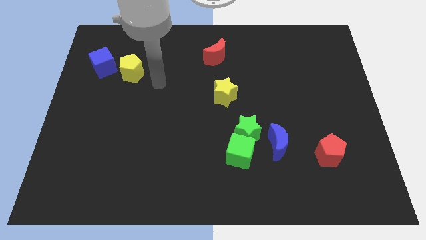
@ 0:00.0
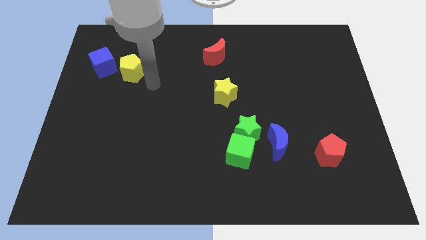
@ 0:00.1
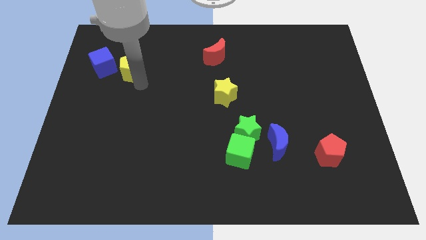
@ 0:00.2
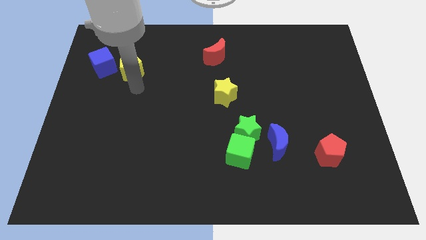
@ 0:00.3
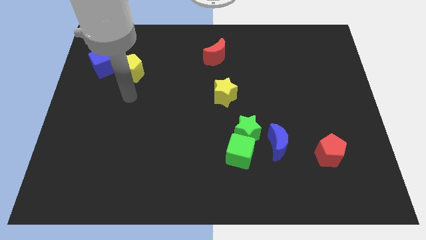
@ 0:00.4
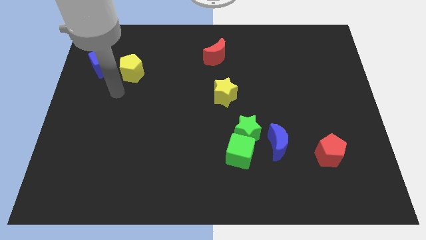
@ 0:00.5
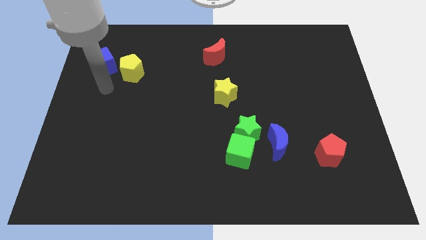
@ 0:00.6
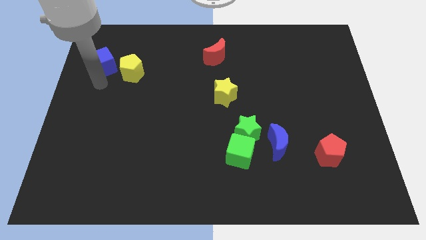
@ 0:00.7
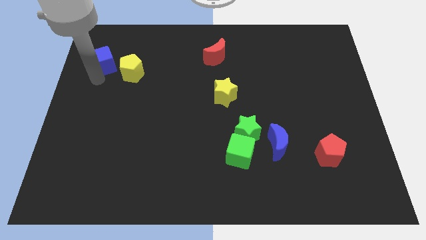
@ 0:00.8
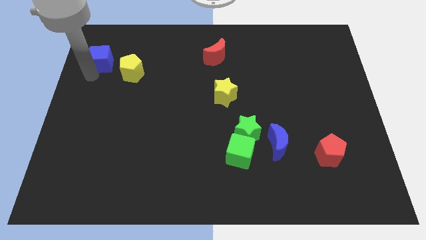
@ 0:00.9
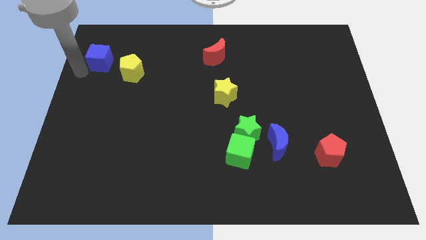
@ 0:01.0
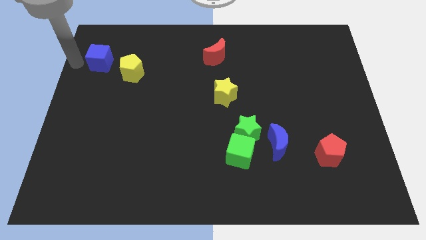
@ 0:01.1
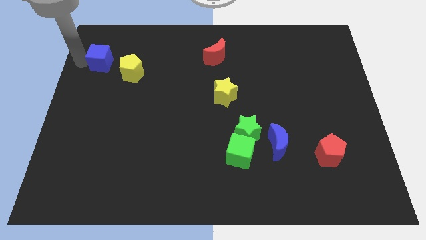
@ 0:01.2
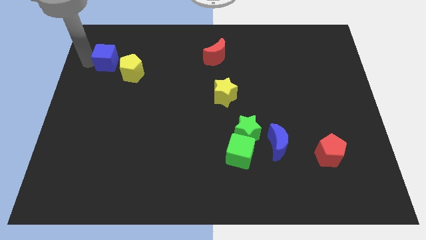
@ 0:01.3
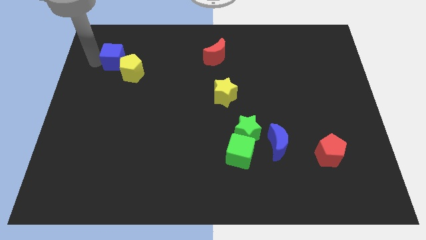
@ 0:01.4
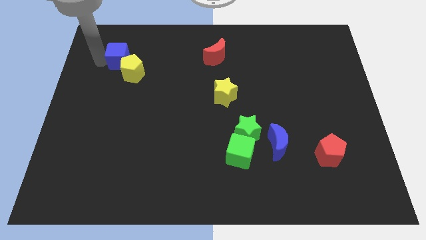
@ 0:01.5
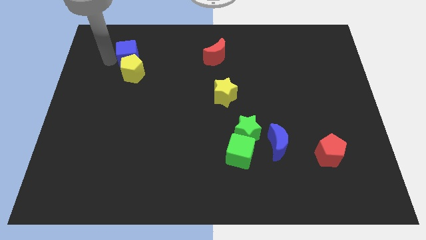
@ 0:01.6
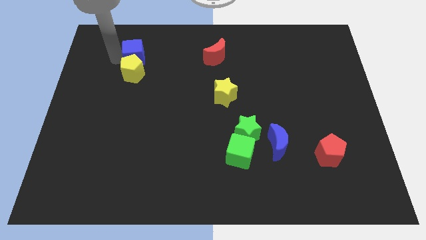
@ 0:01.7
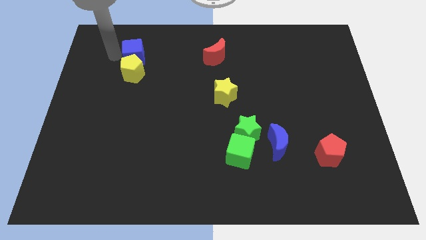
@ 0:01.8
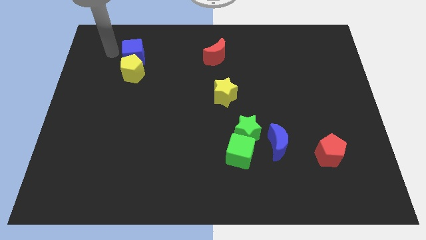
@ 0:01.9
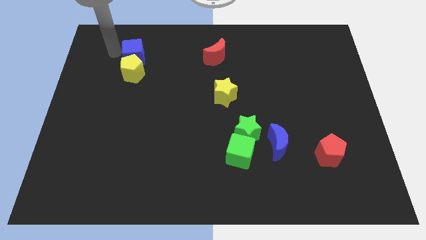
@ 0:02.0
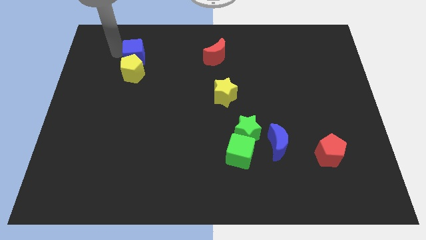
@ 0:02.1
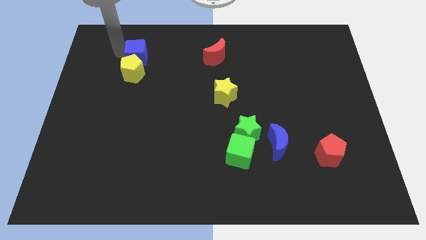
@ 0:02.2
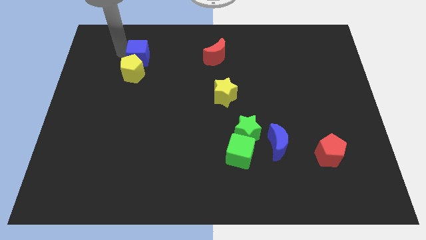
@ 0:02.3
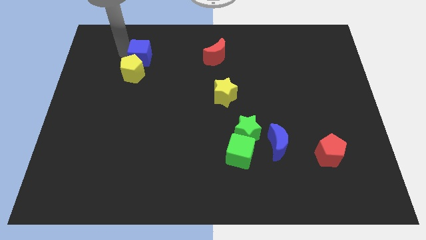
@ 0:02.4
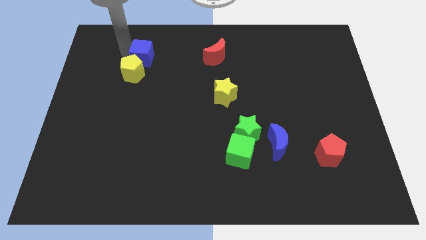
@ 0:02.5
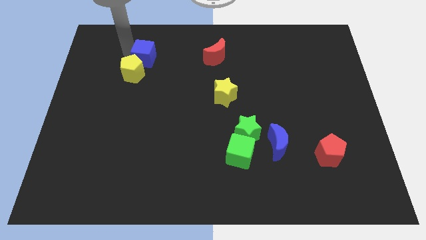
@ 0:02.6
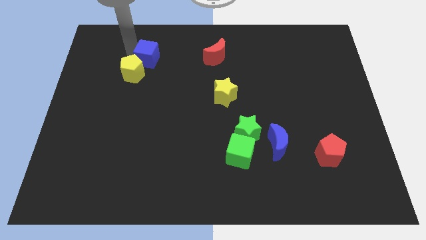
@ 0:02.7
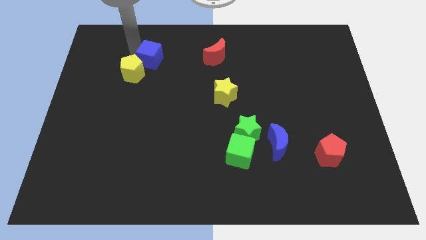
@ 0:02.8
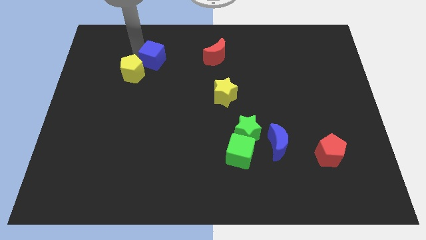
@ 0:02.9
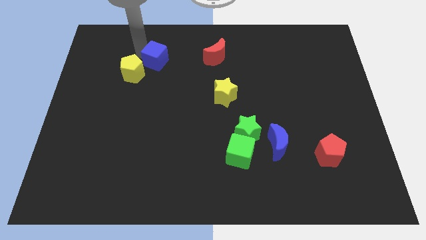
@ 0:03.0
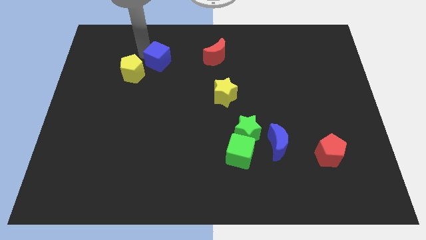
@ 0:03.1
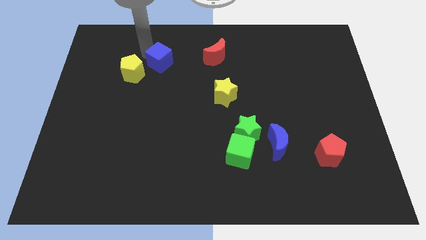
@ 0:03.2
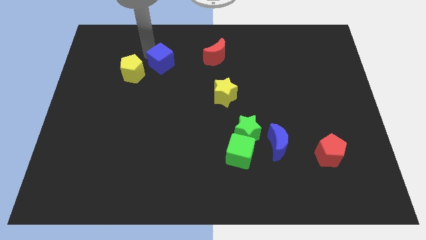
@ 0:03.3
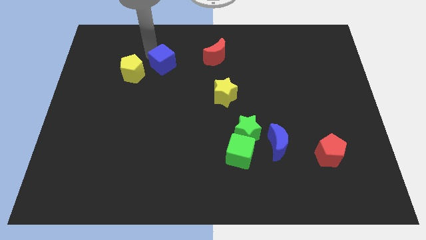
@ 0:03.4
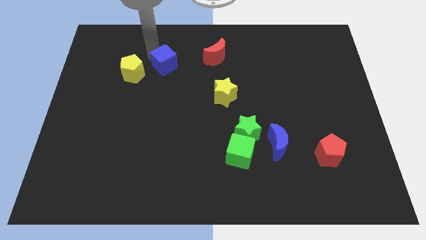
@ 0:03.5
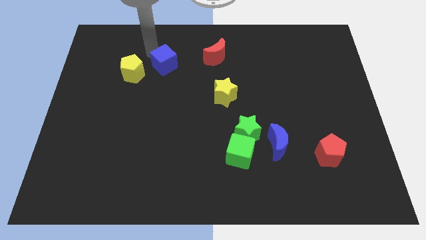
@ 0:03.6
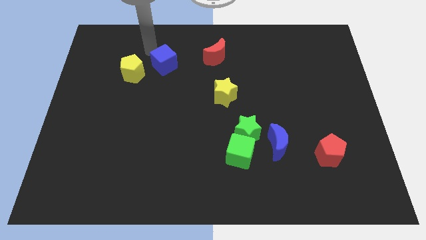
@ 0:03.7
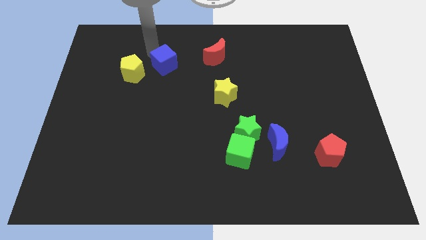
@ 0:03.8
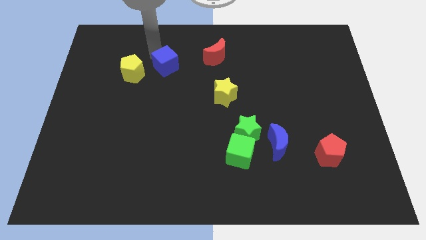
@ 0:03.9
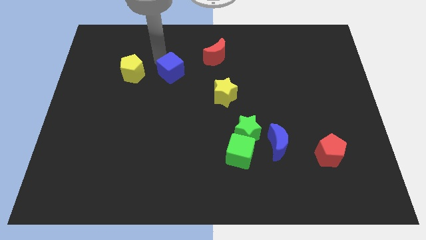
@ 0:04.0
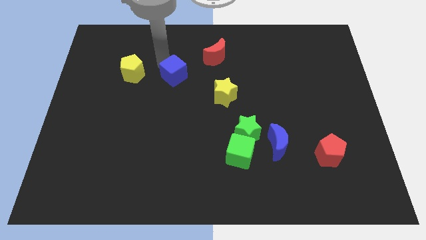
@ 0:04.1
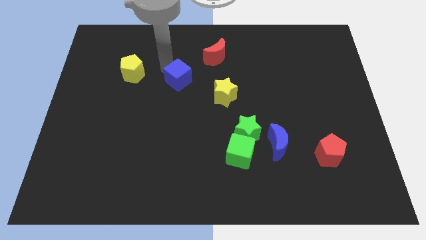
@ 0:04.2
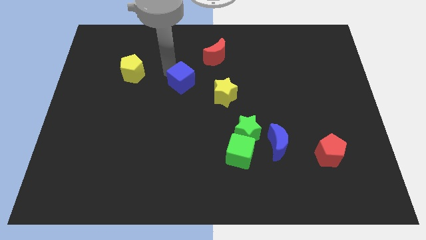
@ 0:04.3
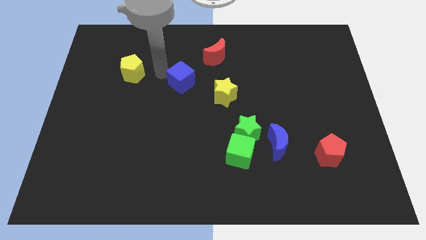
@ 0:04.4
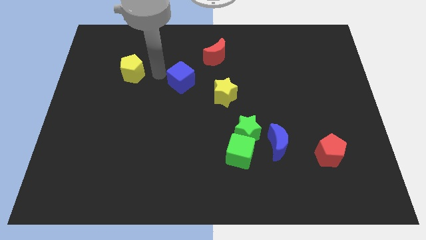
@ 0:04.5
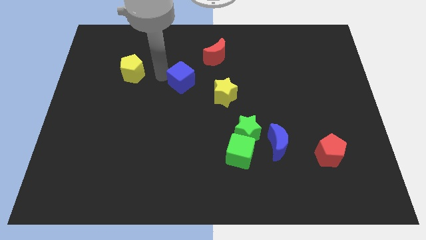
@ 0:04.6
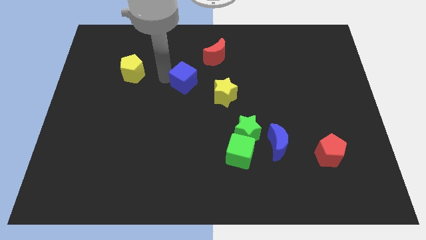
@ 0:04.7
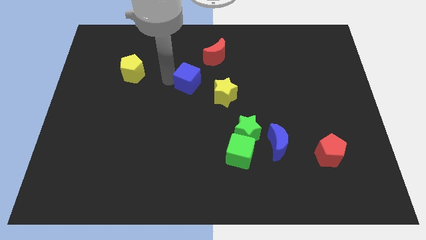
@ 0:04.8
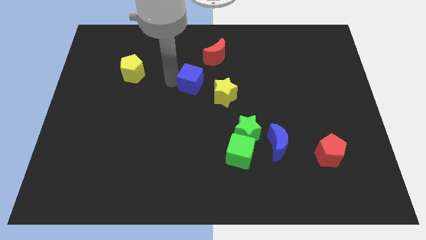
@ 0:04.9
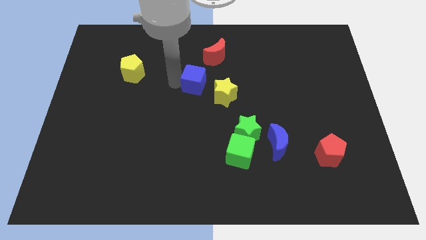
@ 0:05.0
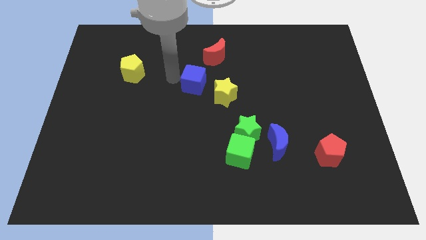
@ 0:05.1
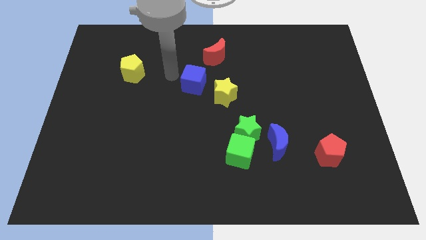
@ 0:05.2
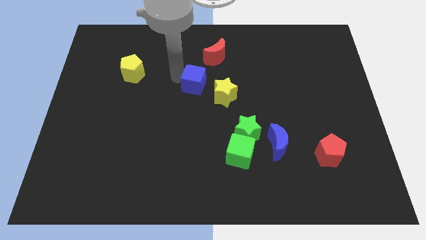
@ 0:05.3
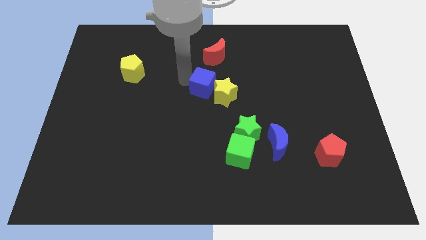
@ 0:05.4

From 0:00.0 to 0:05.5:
slide the blue cube to the yellow star

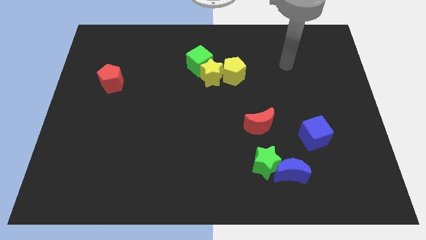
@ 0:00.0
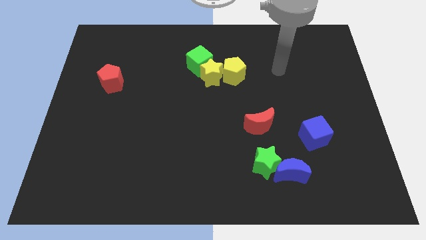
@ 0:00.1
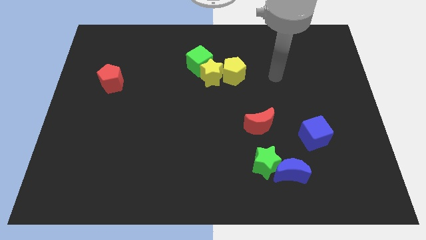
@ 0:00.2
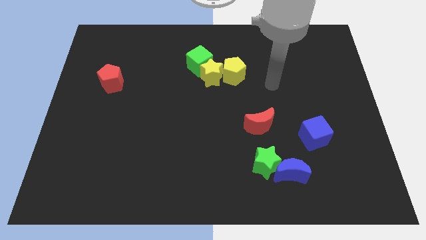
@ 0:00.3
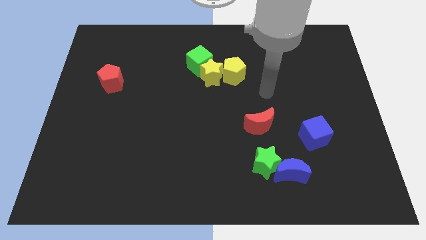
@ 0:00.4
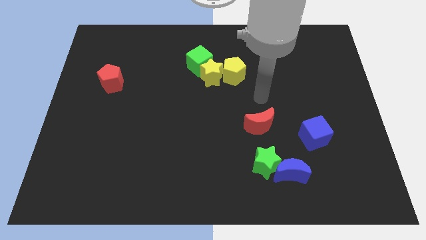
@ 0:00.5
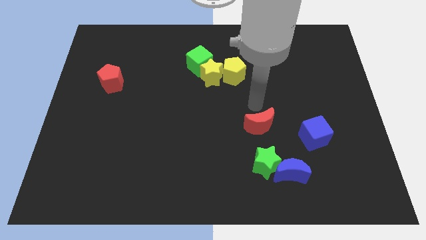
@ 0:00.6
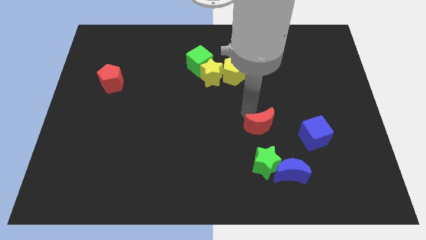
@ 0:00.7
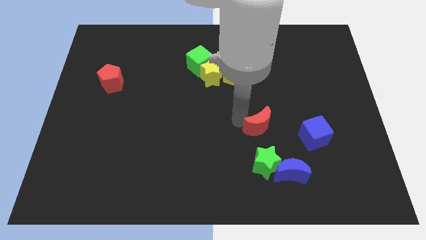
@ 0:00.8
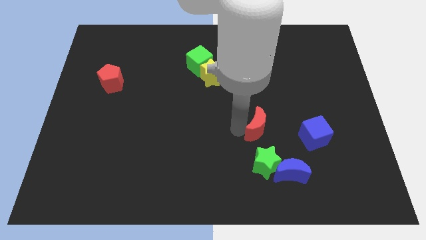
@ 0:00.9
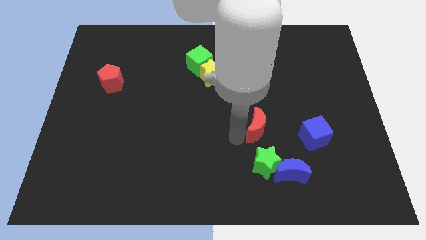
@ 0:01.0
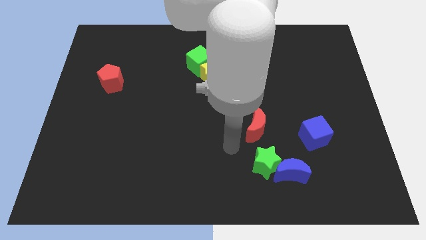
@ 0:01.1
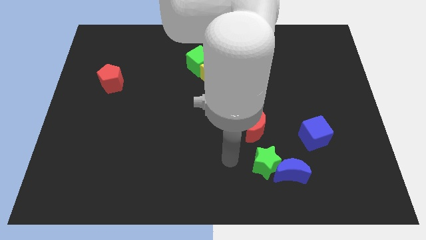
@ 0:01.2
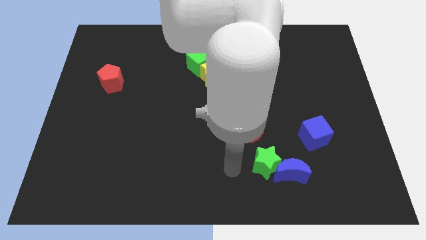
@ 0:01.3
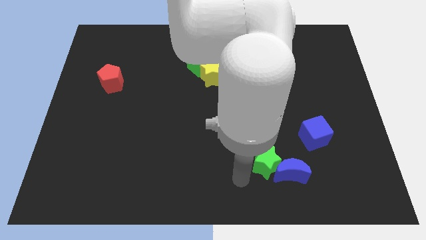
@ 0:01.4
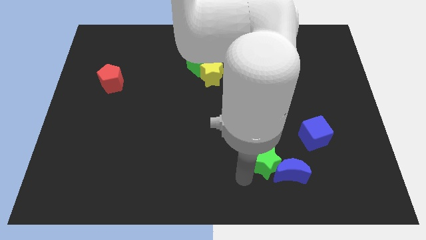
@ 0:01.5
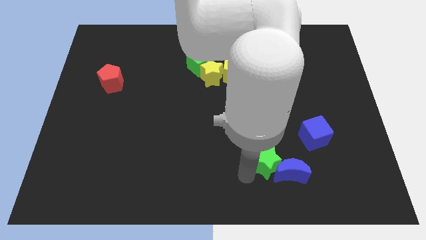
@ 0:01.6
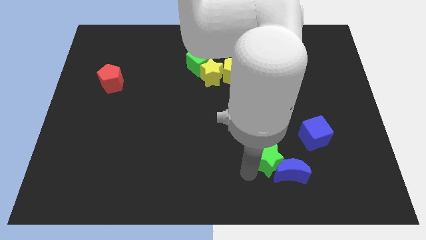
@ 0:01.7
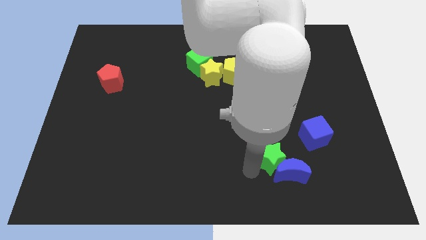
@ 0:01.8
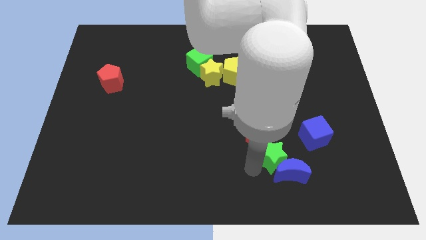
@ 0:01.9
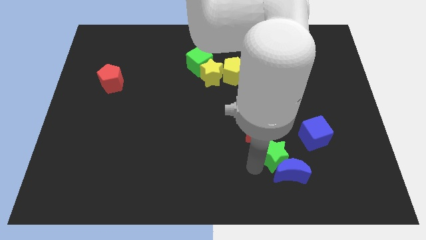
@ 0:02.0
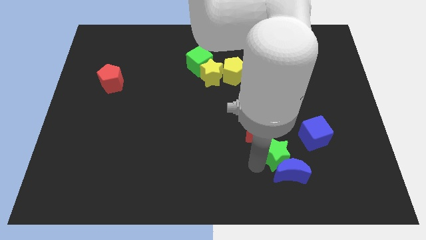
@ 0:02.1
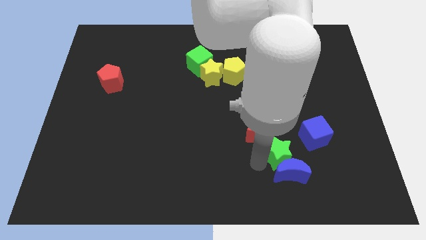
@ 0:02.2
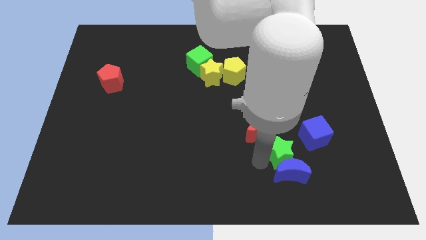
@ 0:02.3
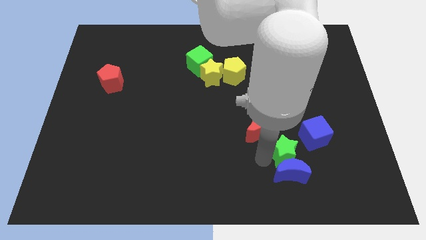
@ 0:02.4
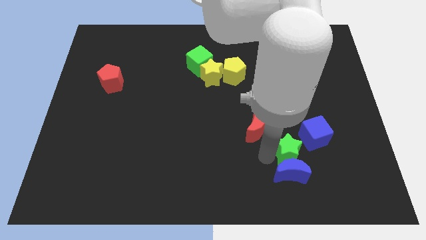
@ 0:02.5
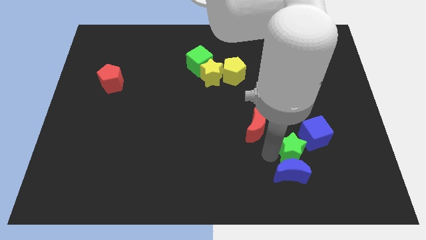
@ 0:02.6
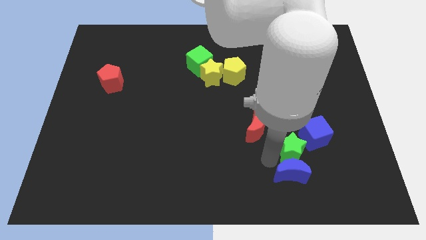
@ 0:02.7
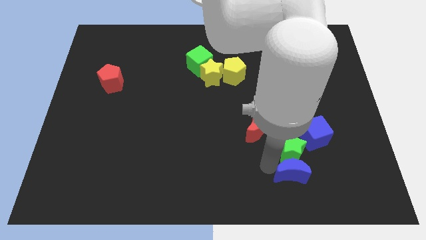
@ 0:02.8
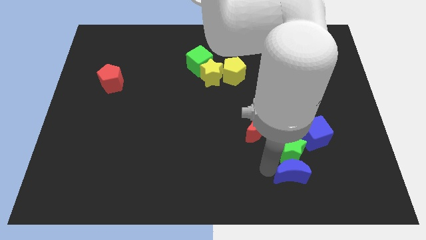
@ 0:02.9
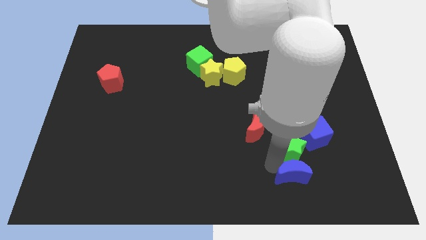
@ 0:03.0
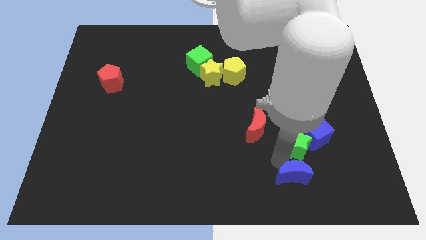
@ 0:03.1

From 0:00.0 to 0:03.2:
push the green star close to the blue cube
